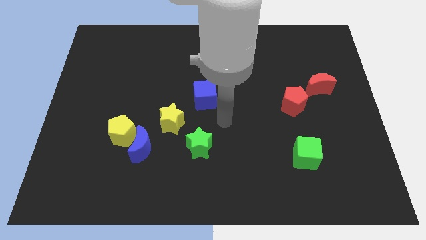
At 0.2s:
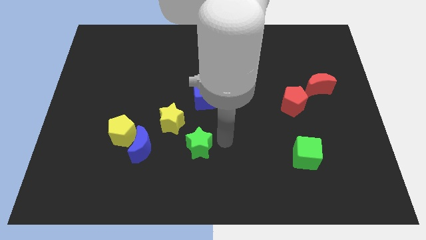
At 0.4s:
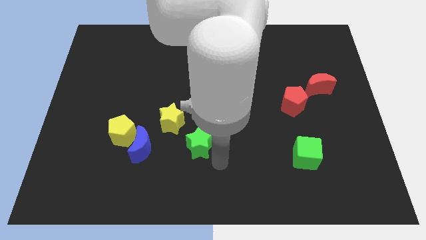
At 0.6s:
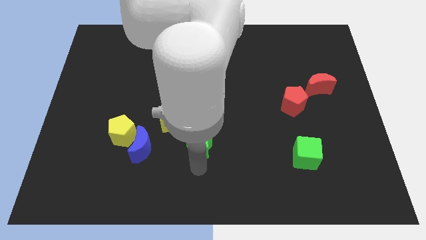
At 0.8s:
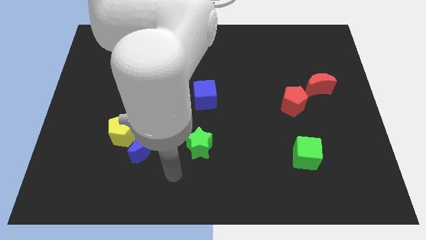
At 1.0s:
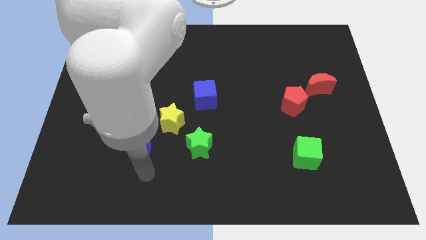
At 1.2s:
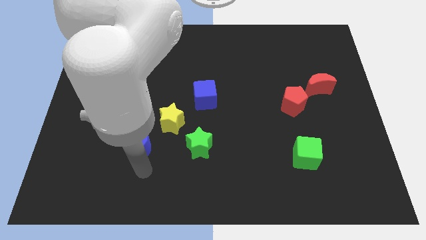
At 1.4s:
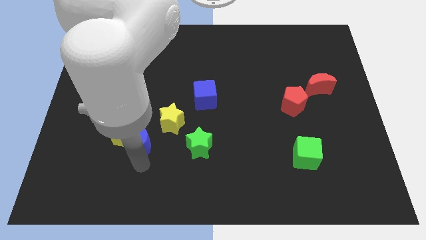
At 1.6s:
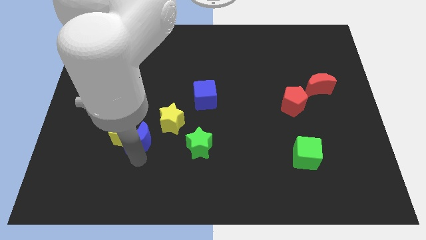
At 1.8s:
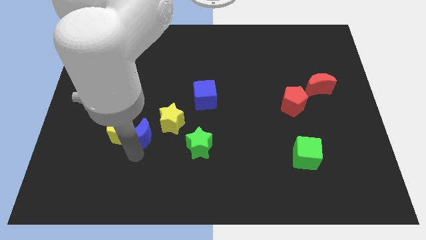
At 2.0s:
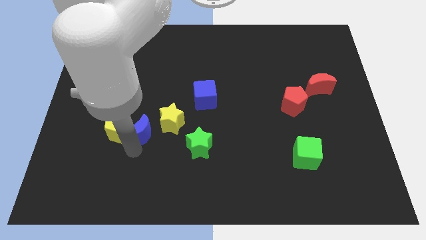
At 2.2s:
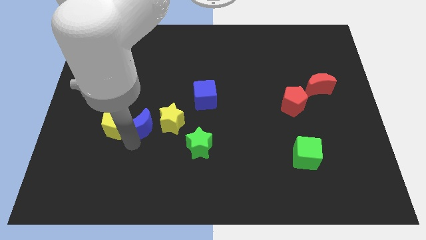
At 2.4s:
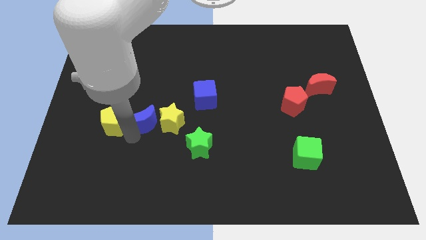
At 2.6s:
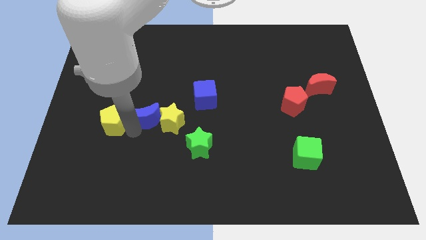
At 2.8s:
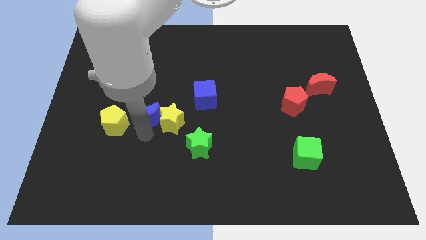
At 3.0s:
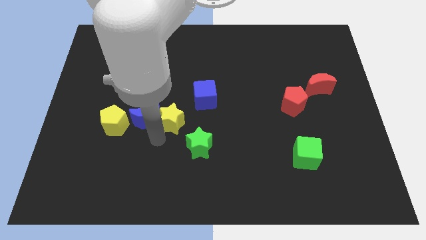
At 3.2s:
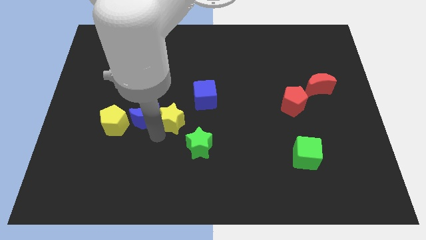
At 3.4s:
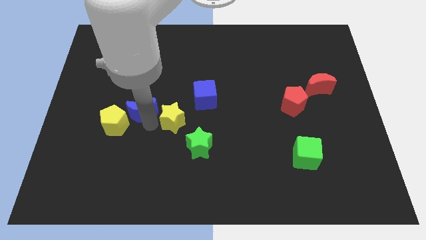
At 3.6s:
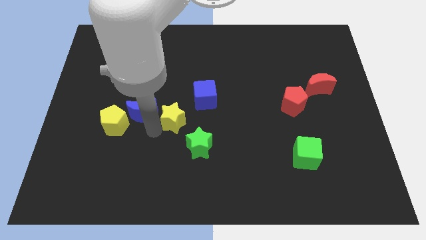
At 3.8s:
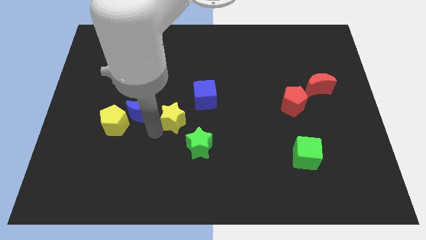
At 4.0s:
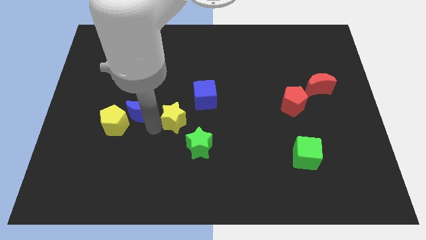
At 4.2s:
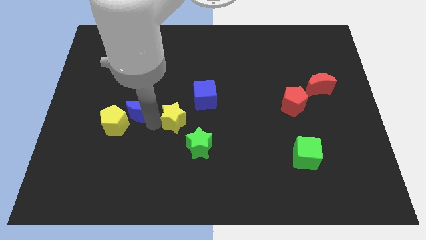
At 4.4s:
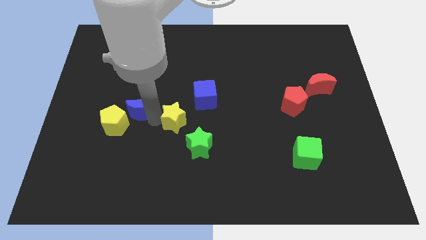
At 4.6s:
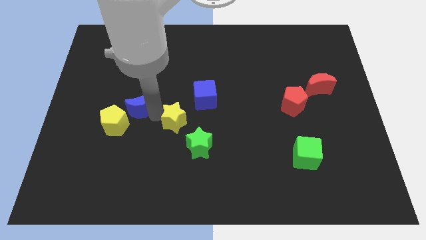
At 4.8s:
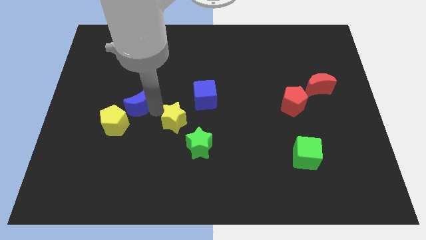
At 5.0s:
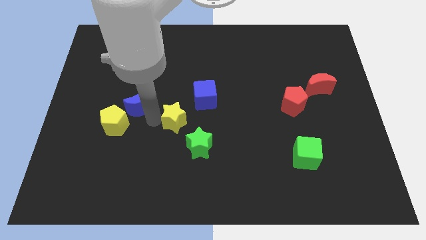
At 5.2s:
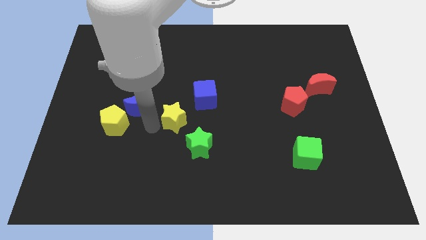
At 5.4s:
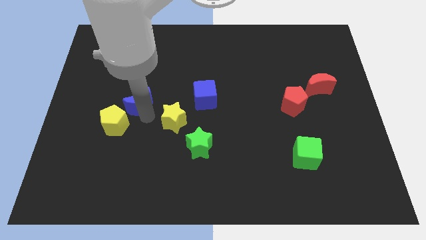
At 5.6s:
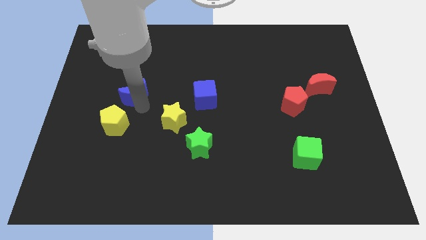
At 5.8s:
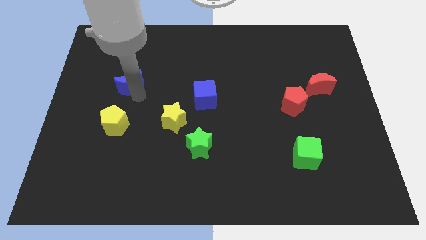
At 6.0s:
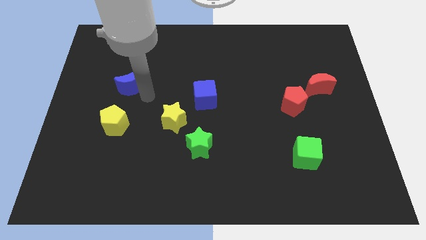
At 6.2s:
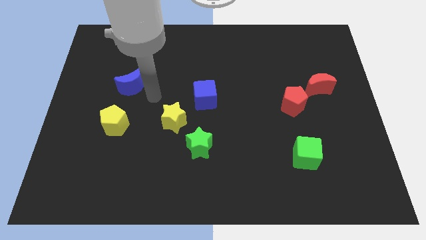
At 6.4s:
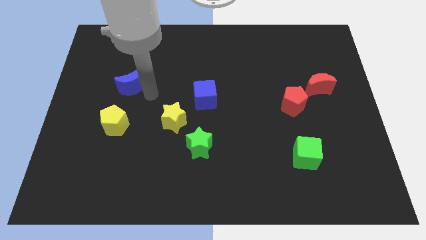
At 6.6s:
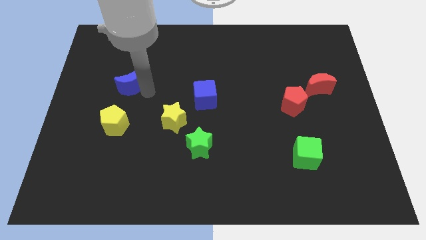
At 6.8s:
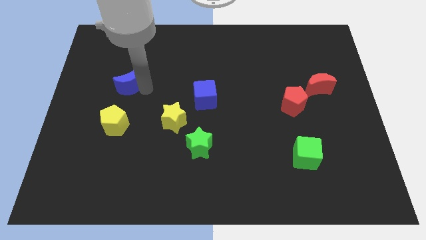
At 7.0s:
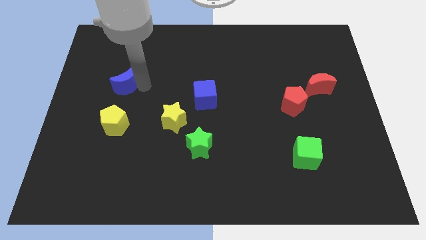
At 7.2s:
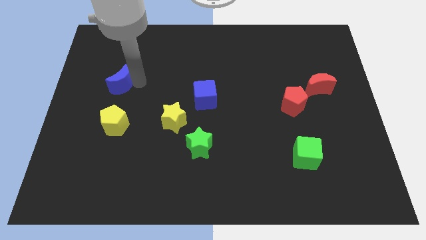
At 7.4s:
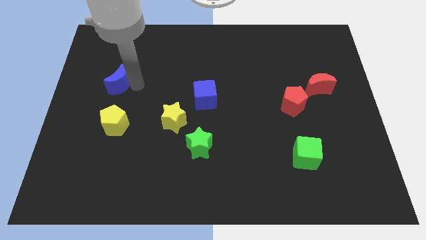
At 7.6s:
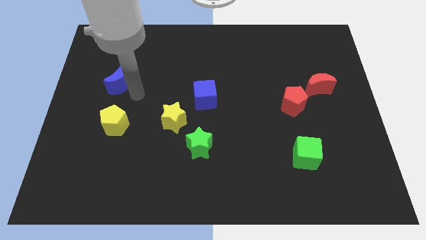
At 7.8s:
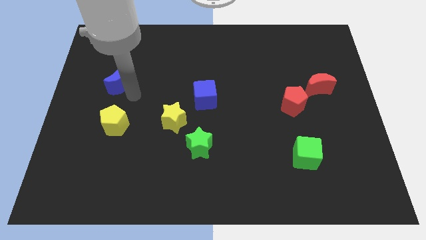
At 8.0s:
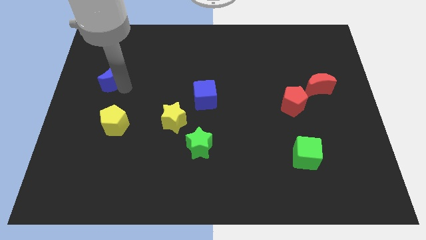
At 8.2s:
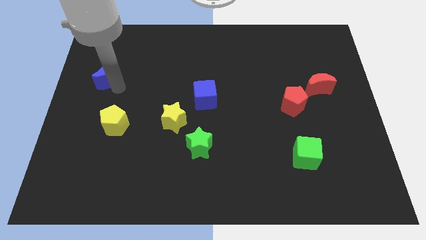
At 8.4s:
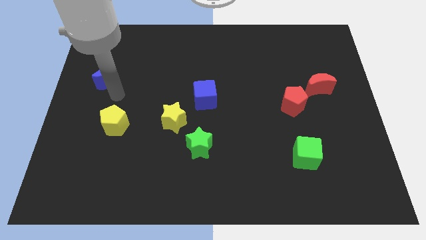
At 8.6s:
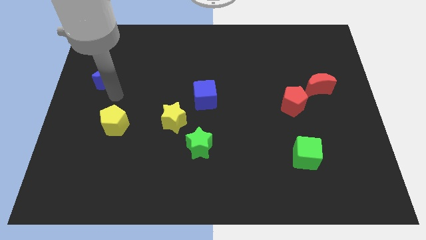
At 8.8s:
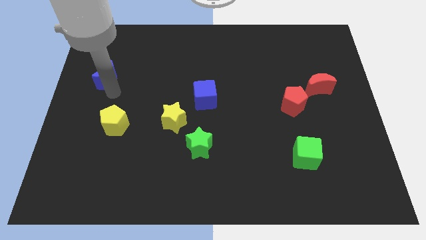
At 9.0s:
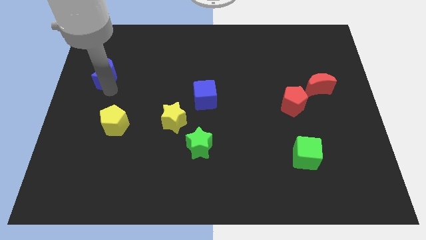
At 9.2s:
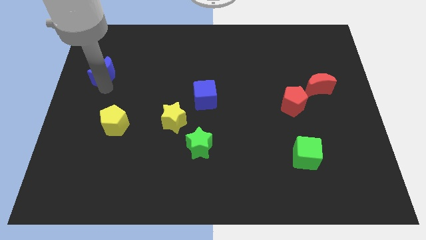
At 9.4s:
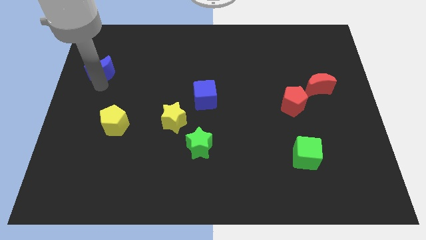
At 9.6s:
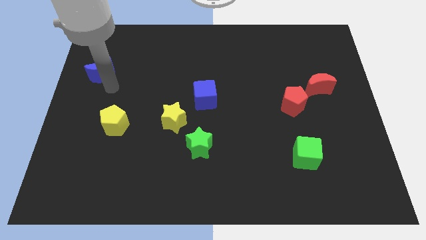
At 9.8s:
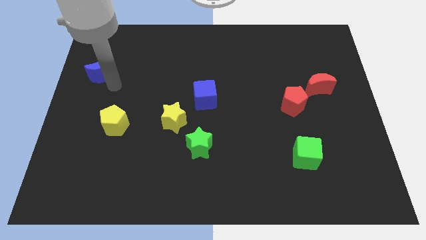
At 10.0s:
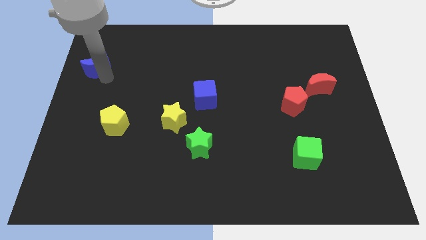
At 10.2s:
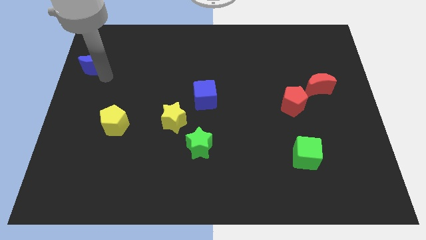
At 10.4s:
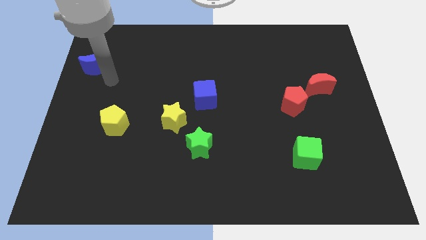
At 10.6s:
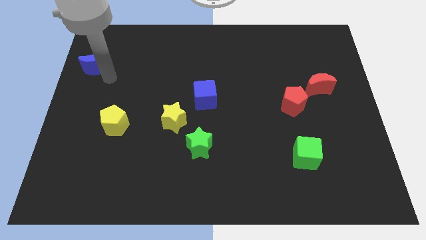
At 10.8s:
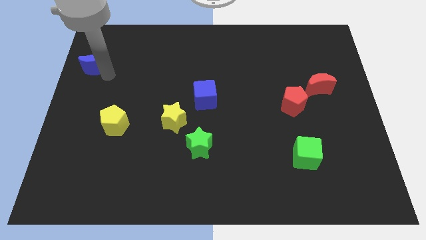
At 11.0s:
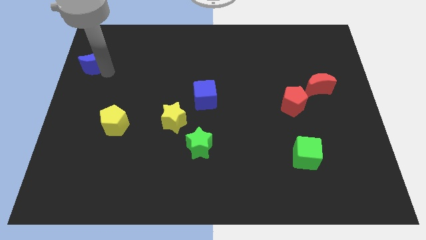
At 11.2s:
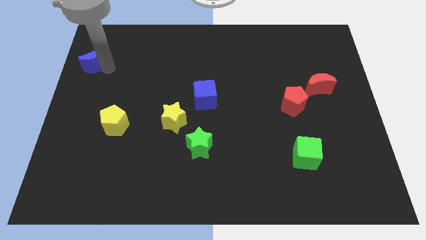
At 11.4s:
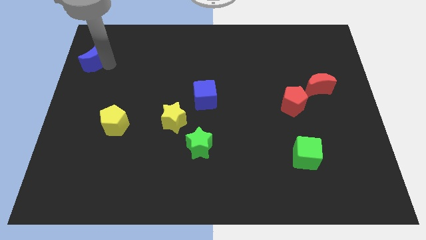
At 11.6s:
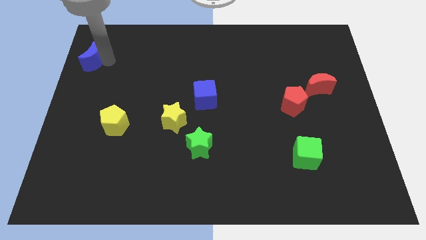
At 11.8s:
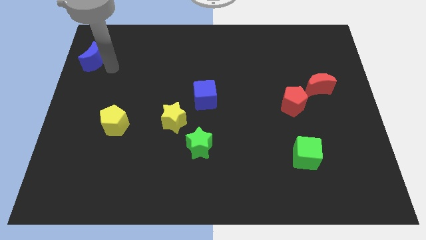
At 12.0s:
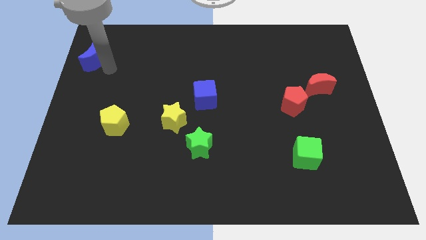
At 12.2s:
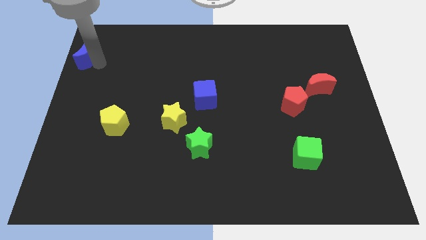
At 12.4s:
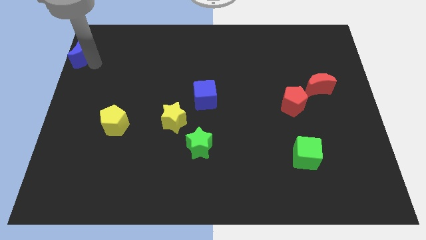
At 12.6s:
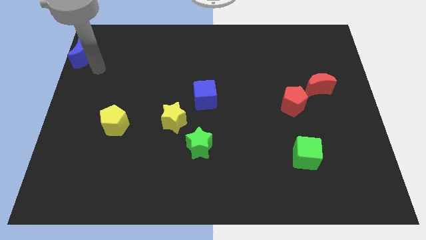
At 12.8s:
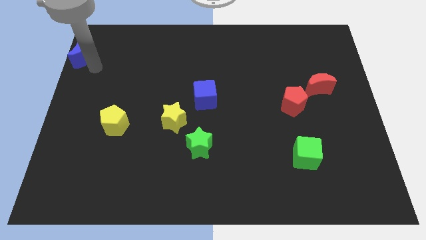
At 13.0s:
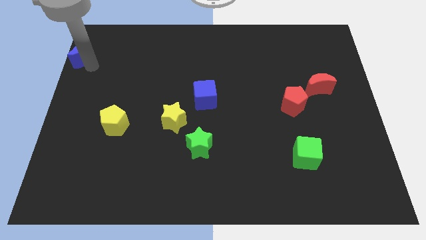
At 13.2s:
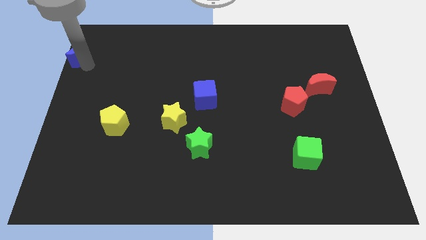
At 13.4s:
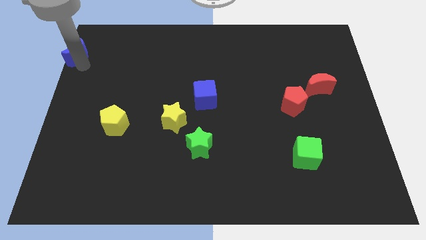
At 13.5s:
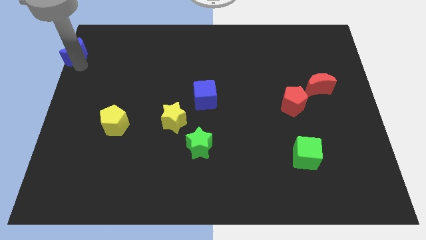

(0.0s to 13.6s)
put the blue moon to the upper left corner
